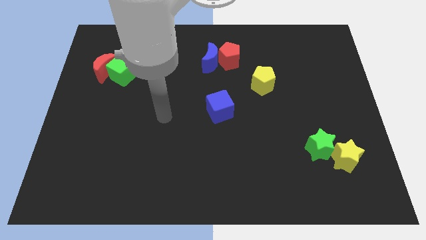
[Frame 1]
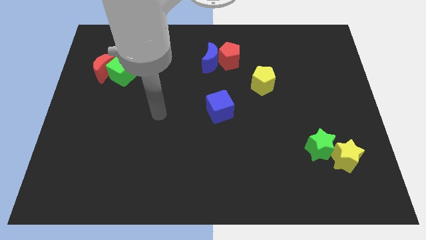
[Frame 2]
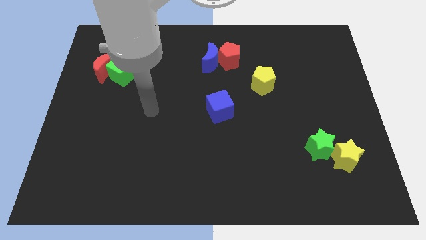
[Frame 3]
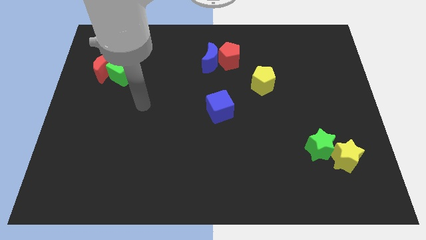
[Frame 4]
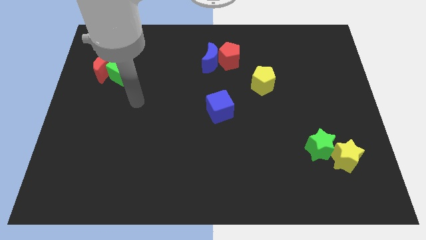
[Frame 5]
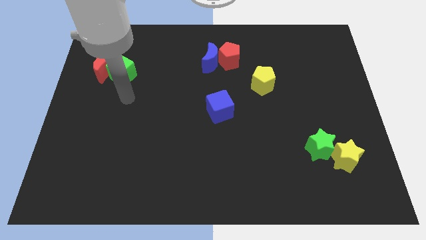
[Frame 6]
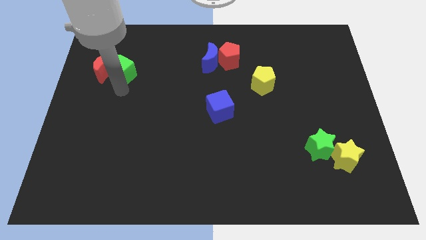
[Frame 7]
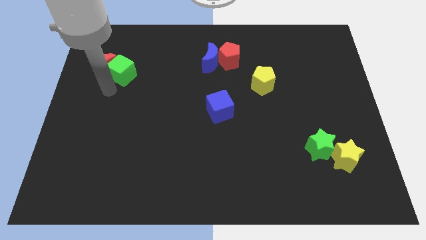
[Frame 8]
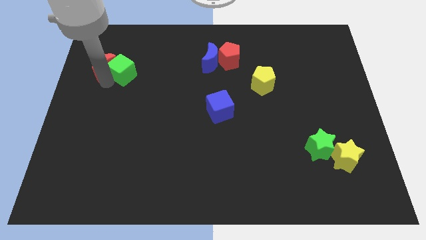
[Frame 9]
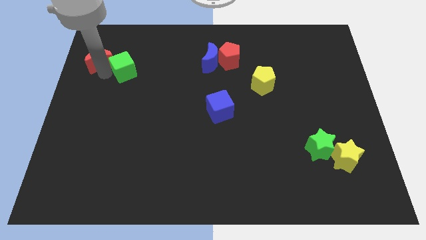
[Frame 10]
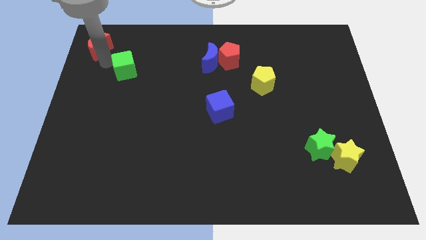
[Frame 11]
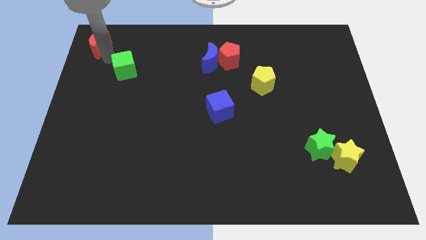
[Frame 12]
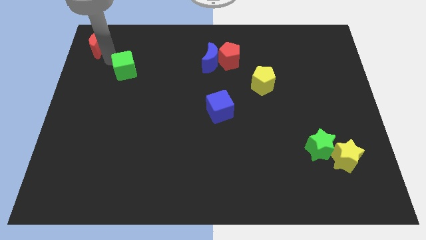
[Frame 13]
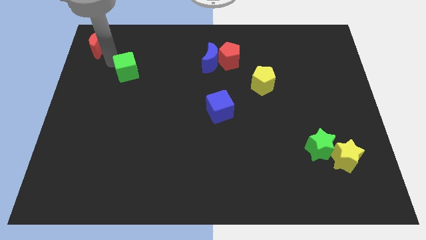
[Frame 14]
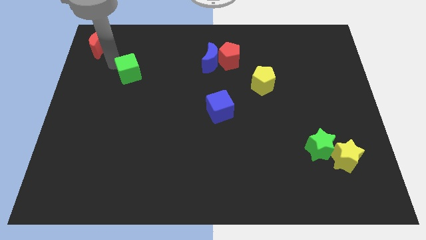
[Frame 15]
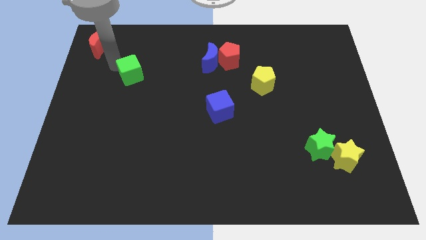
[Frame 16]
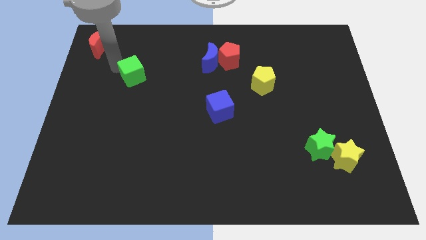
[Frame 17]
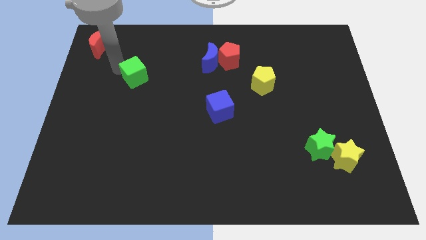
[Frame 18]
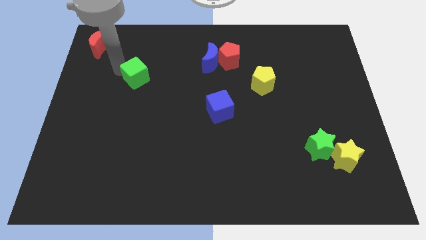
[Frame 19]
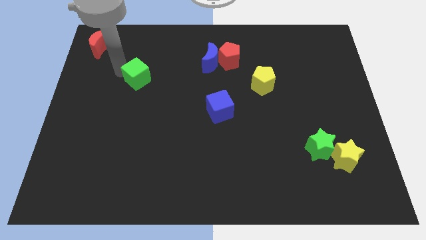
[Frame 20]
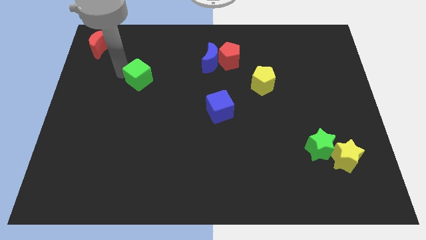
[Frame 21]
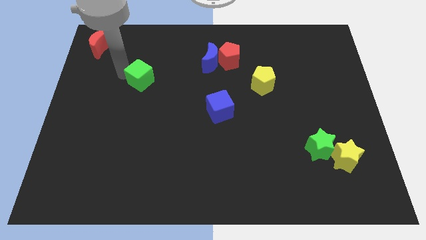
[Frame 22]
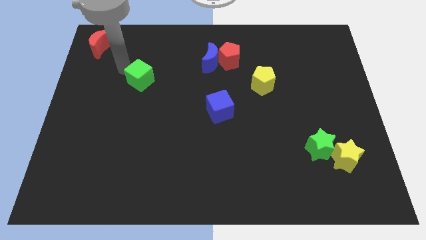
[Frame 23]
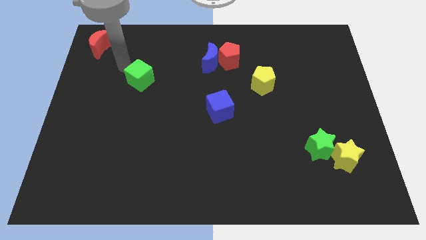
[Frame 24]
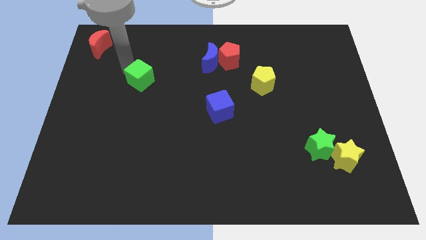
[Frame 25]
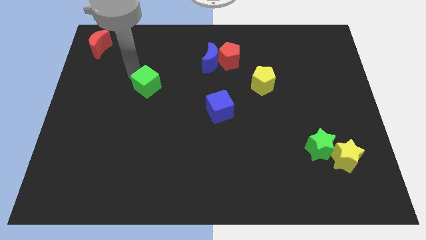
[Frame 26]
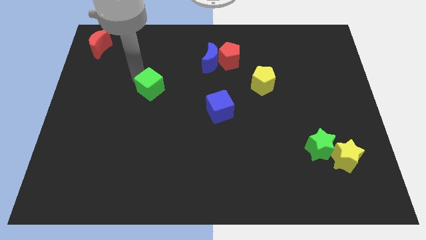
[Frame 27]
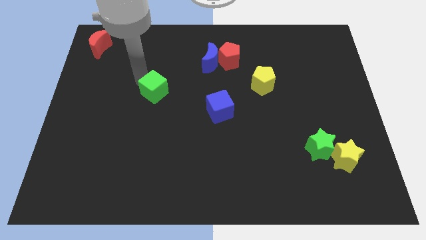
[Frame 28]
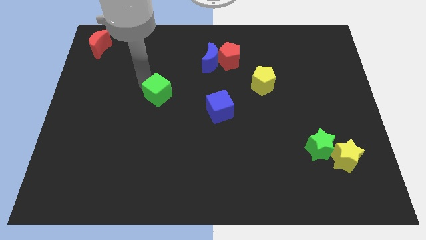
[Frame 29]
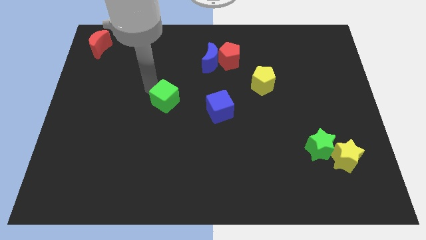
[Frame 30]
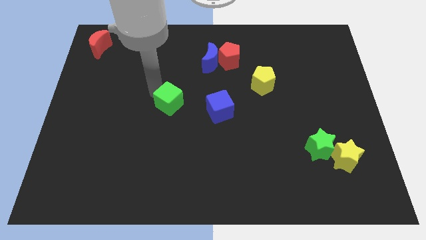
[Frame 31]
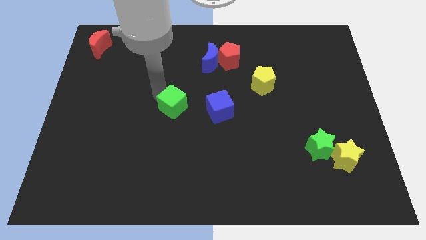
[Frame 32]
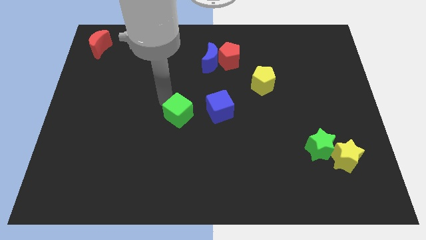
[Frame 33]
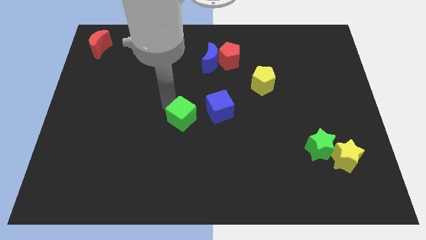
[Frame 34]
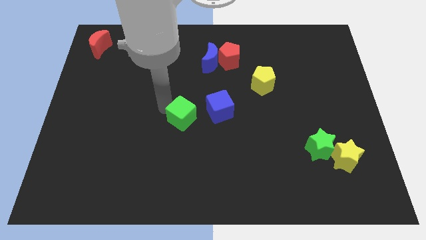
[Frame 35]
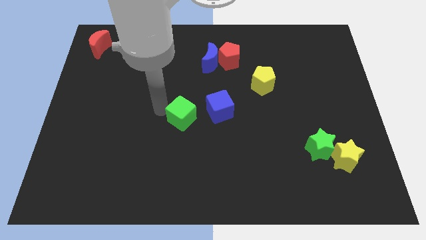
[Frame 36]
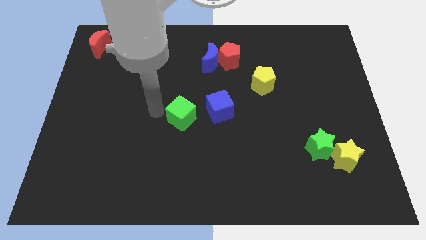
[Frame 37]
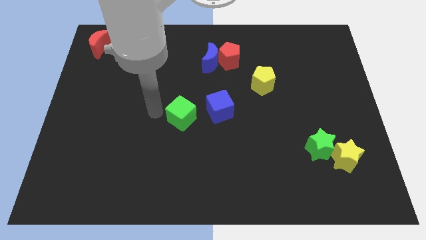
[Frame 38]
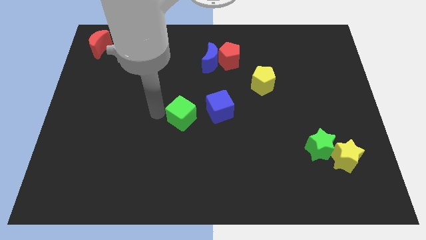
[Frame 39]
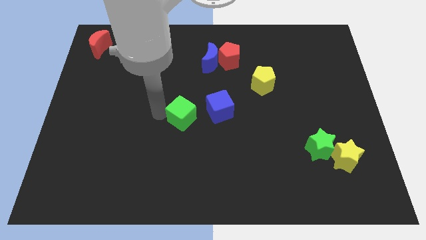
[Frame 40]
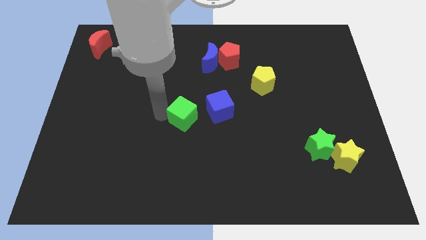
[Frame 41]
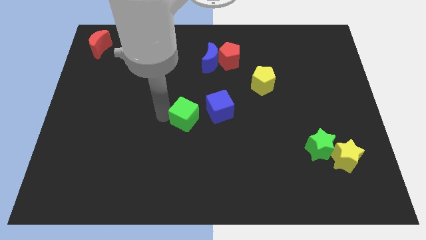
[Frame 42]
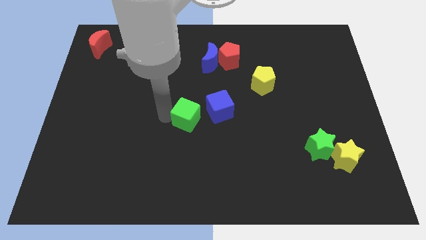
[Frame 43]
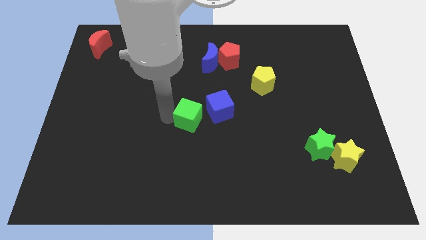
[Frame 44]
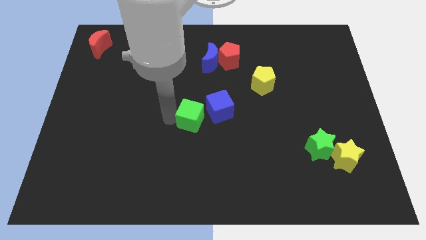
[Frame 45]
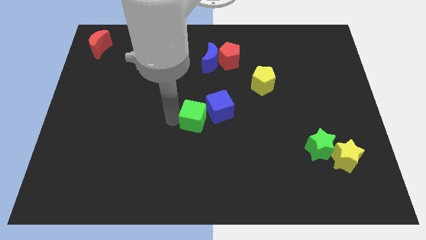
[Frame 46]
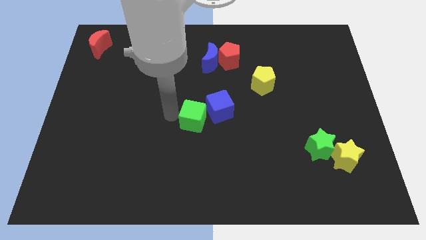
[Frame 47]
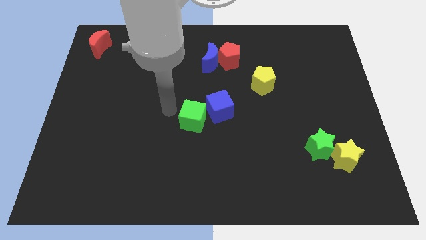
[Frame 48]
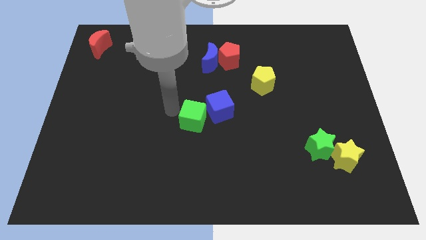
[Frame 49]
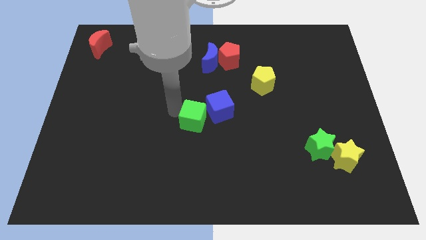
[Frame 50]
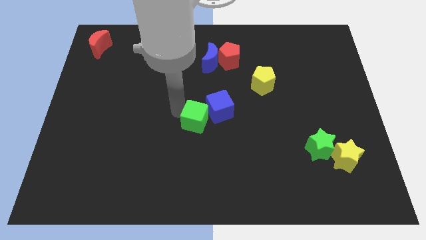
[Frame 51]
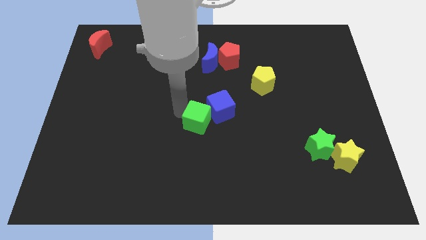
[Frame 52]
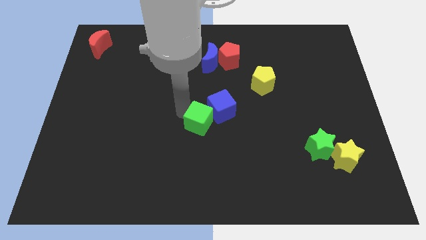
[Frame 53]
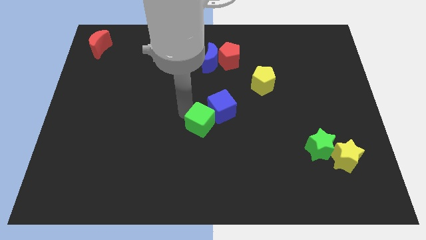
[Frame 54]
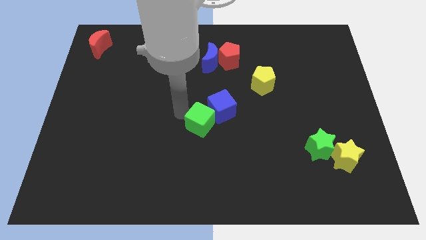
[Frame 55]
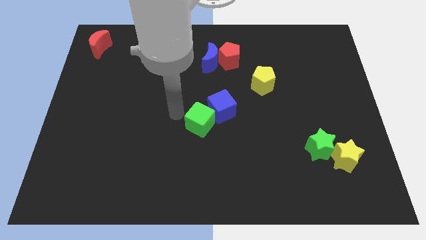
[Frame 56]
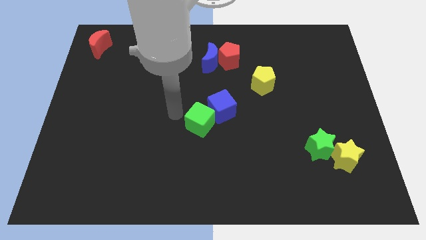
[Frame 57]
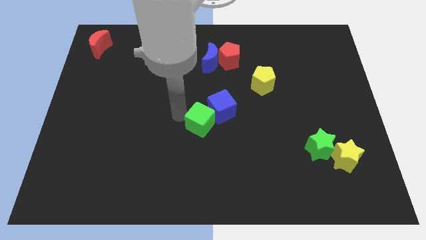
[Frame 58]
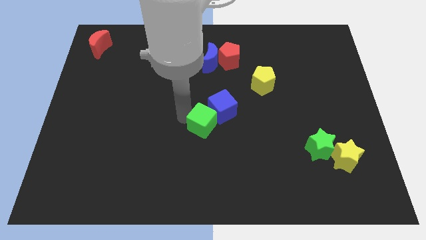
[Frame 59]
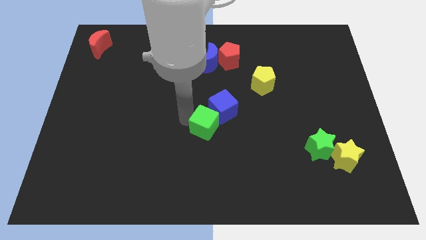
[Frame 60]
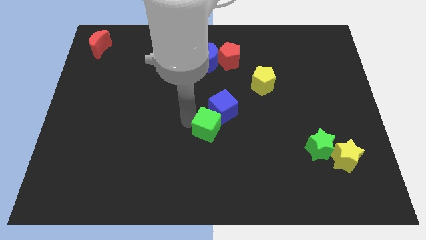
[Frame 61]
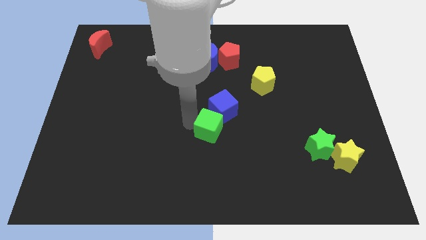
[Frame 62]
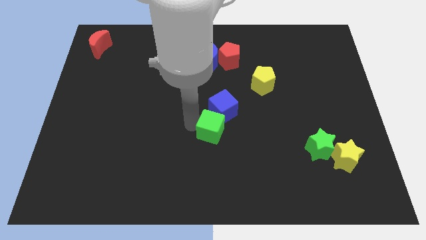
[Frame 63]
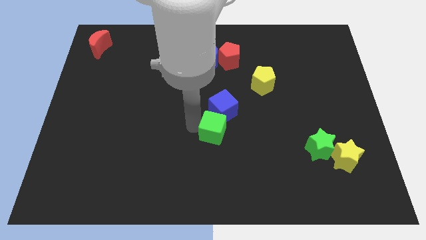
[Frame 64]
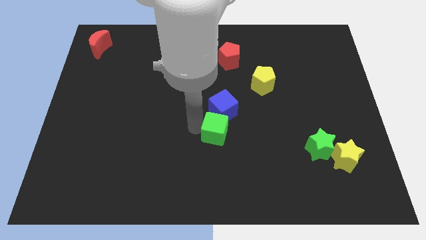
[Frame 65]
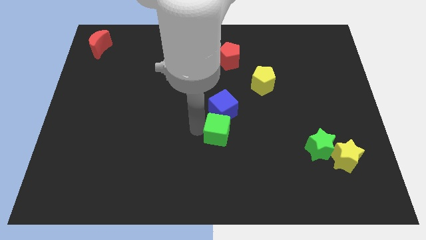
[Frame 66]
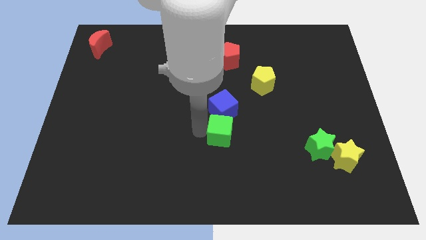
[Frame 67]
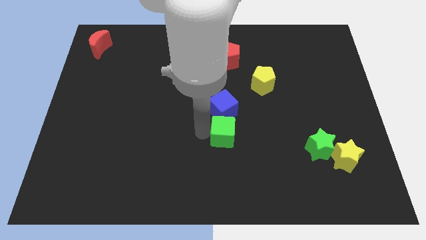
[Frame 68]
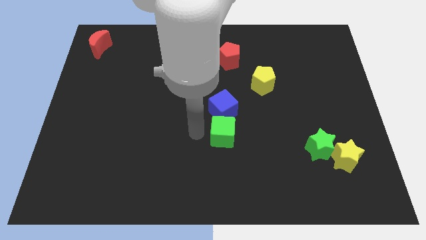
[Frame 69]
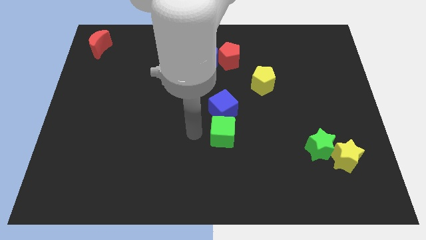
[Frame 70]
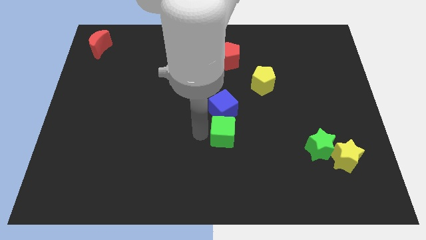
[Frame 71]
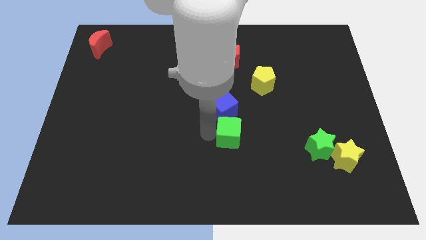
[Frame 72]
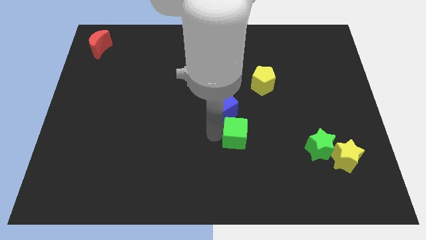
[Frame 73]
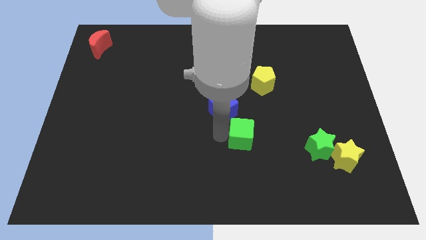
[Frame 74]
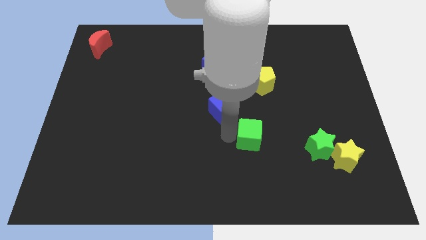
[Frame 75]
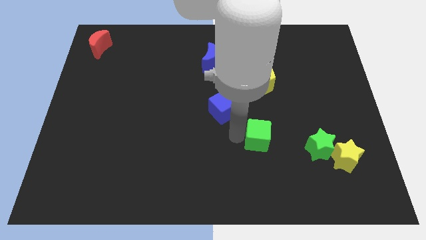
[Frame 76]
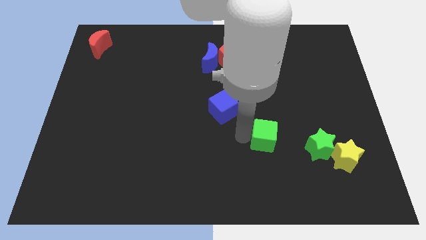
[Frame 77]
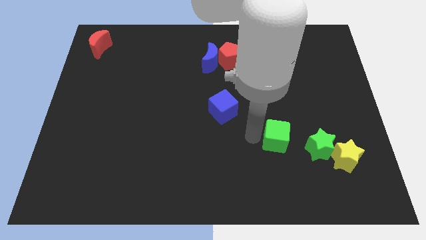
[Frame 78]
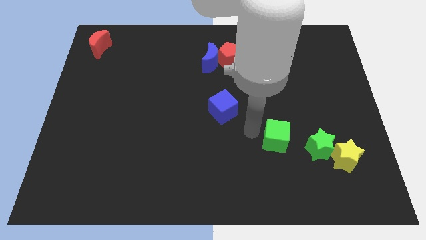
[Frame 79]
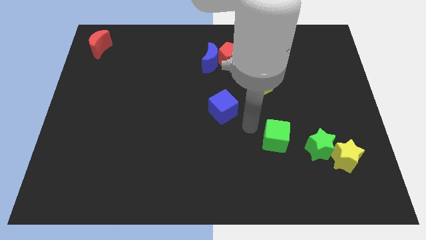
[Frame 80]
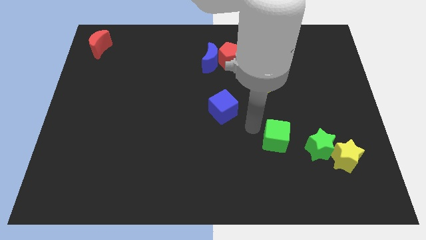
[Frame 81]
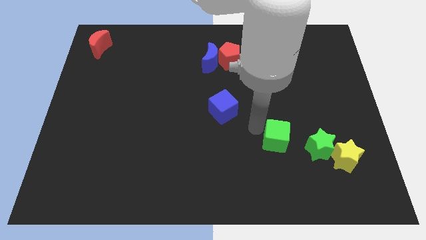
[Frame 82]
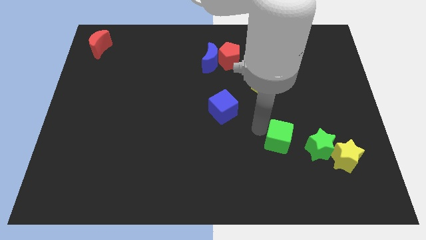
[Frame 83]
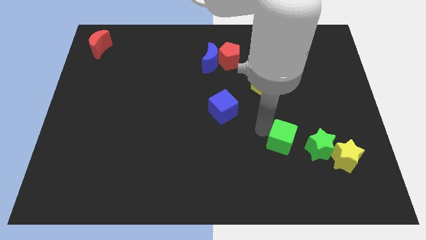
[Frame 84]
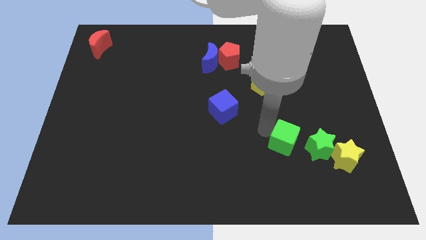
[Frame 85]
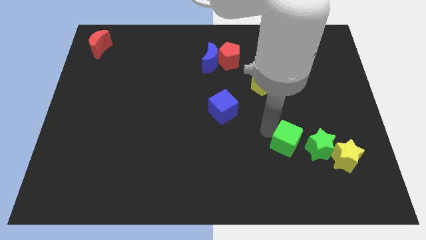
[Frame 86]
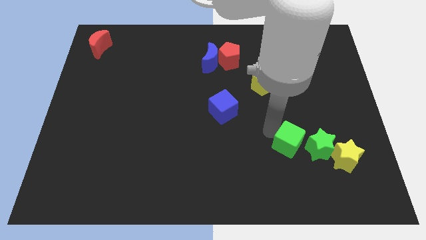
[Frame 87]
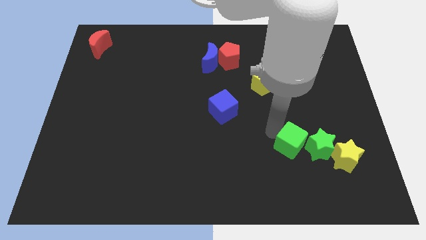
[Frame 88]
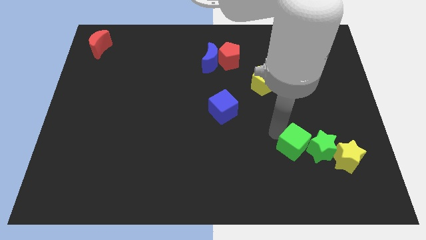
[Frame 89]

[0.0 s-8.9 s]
push the green cube towards the green star
